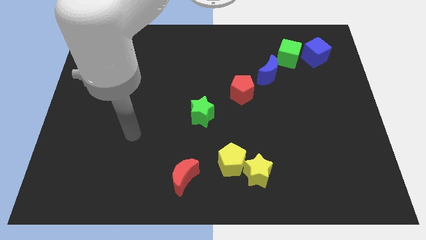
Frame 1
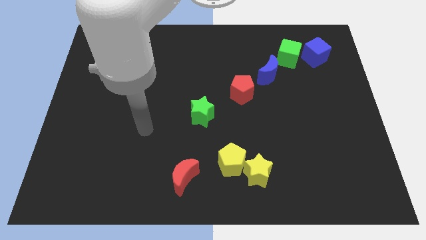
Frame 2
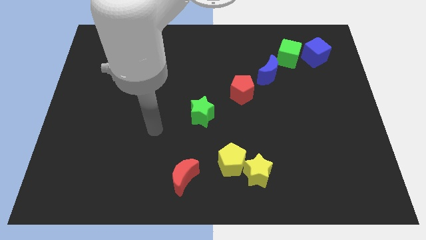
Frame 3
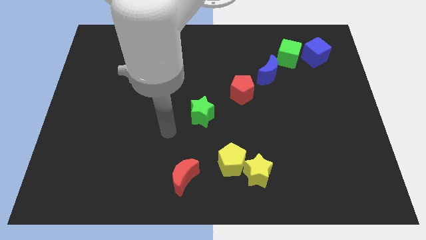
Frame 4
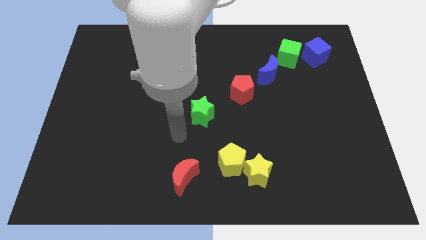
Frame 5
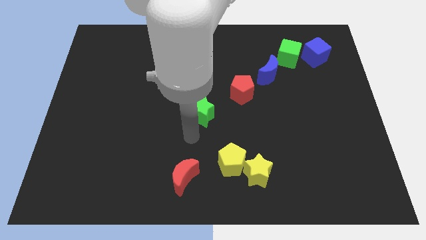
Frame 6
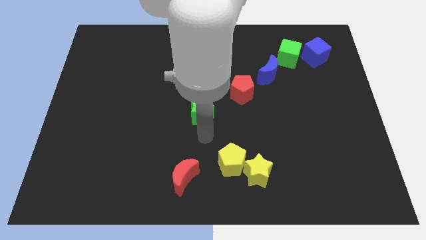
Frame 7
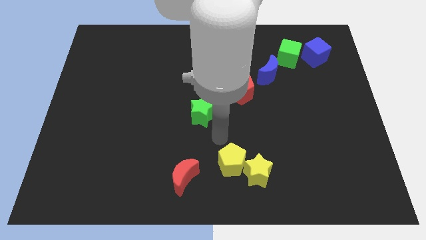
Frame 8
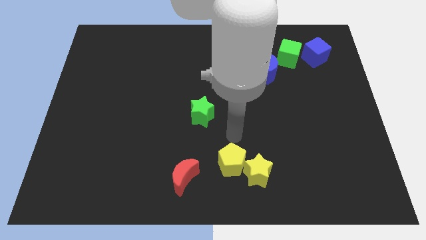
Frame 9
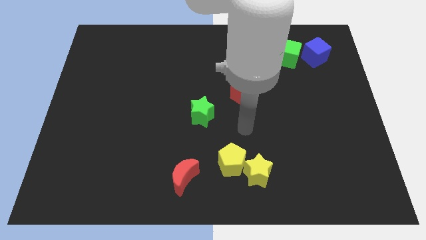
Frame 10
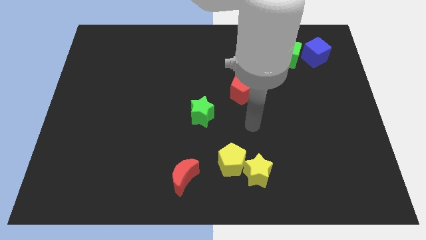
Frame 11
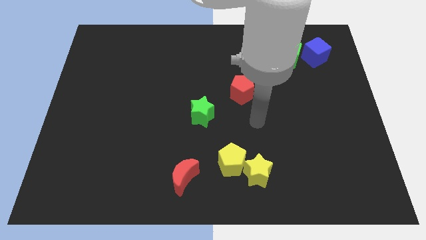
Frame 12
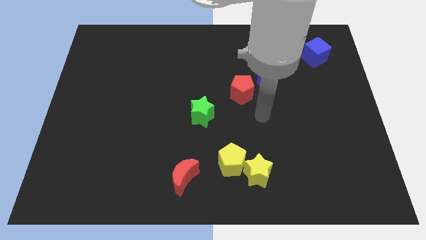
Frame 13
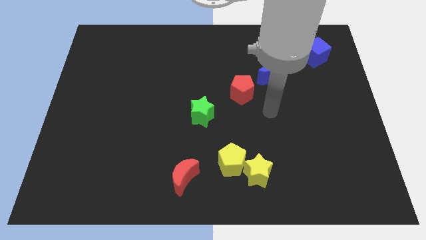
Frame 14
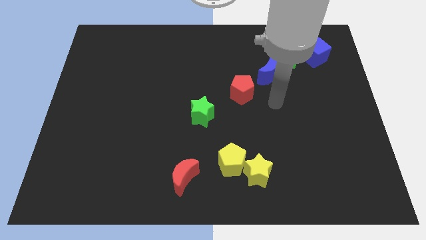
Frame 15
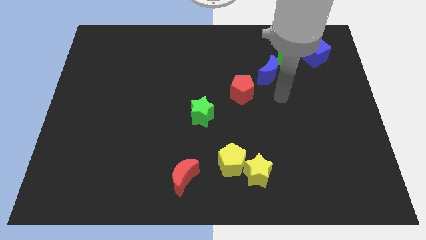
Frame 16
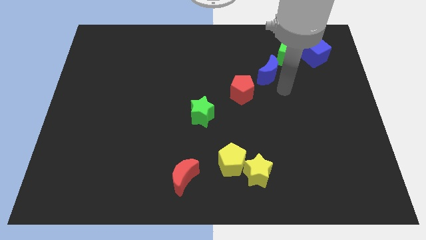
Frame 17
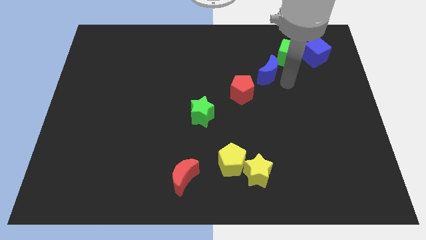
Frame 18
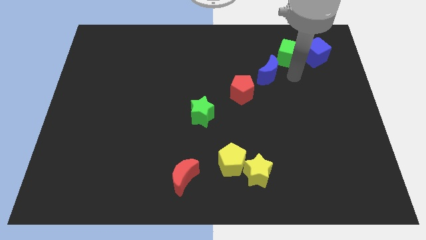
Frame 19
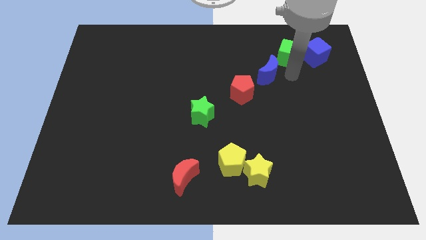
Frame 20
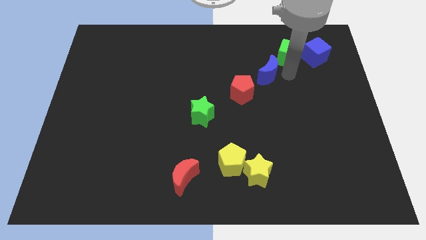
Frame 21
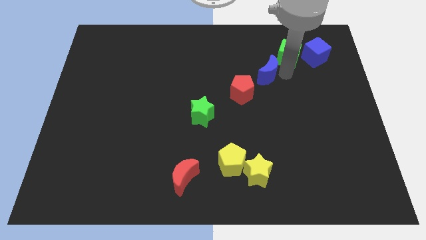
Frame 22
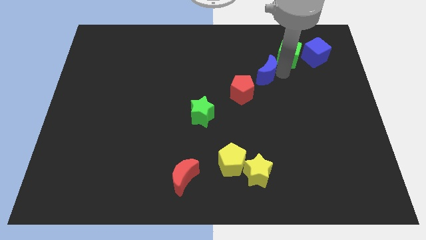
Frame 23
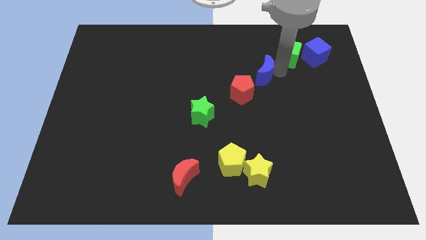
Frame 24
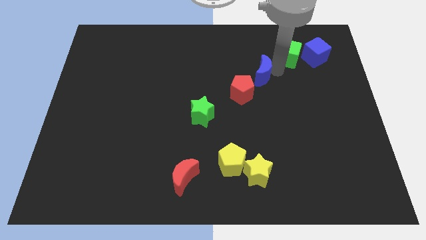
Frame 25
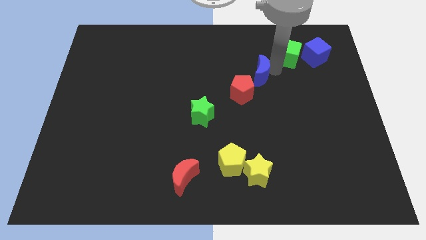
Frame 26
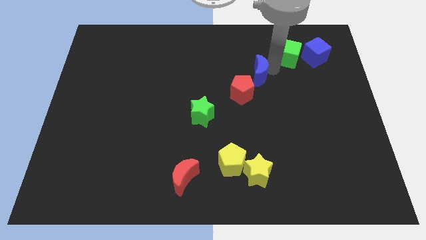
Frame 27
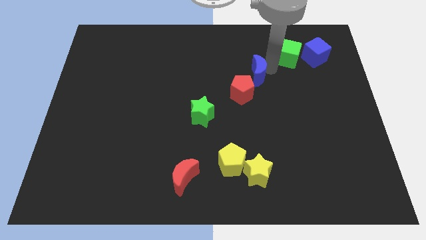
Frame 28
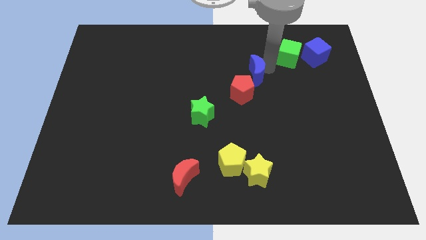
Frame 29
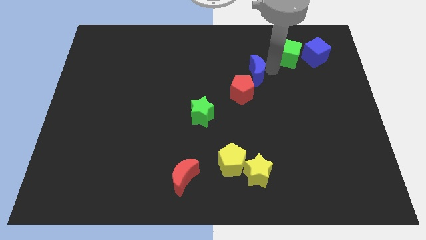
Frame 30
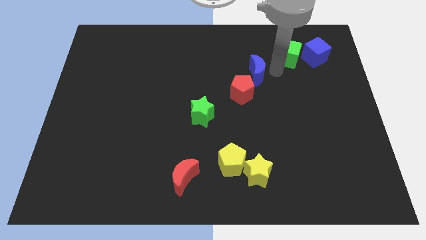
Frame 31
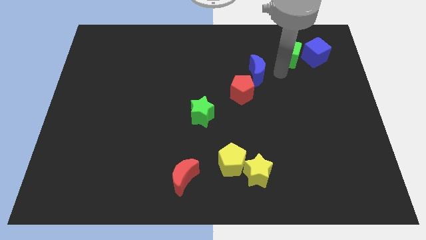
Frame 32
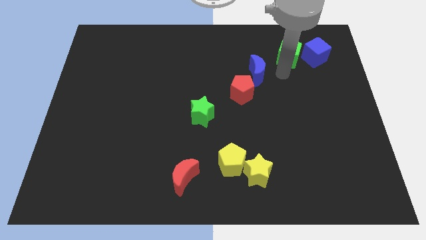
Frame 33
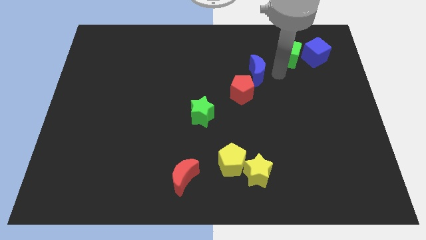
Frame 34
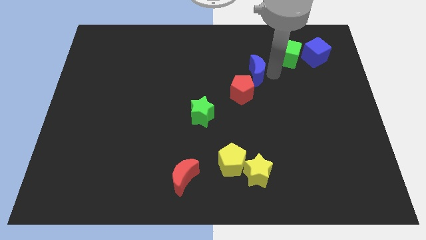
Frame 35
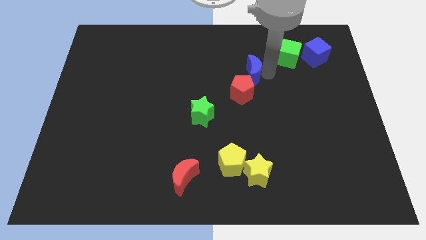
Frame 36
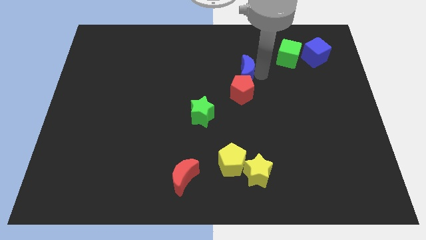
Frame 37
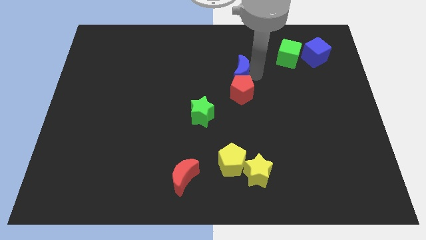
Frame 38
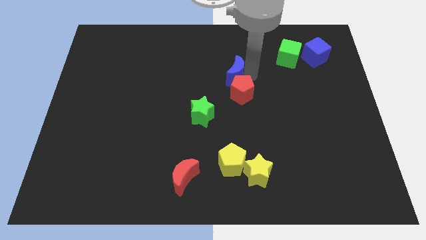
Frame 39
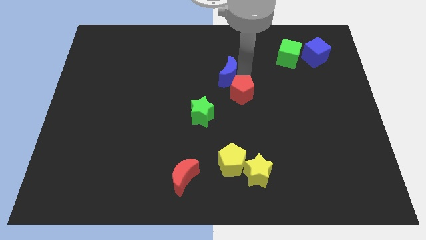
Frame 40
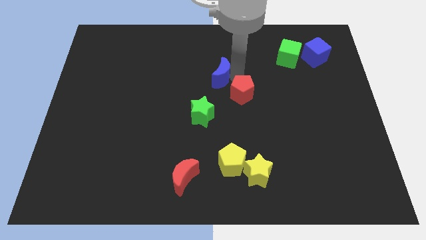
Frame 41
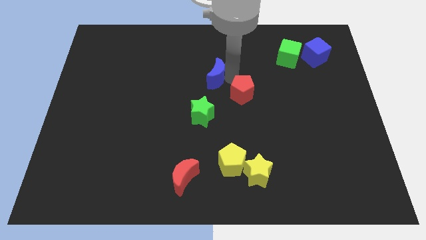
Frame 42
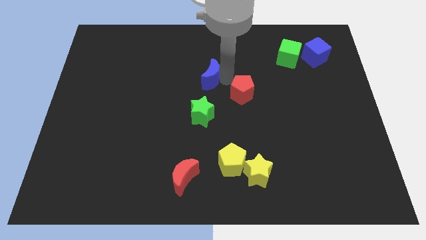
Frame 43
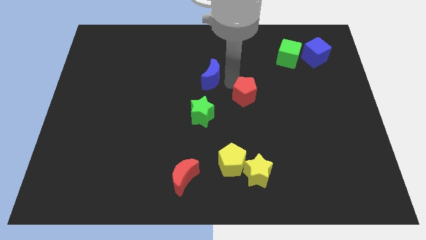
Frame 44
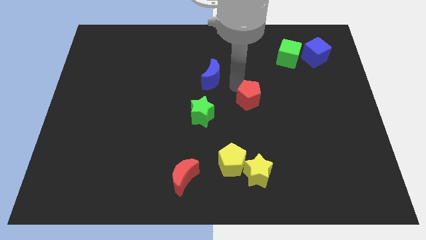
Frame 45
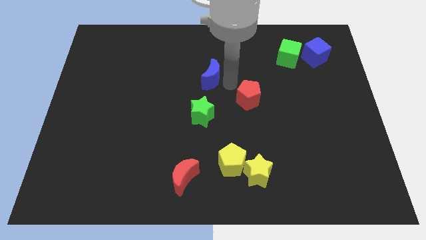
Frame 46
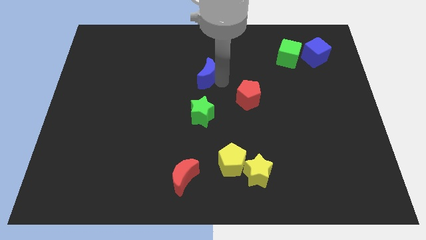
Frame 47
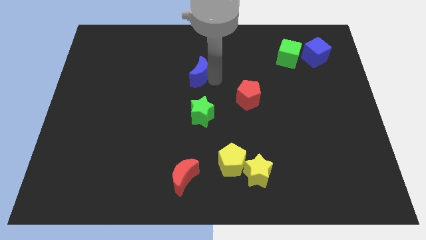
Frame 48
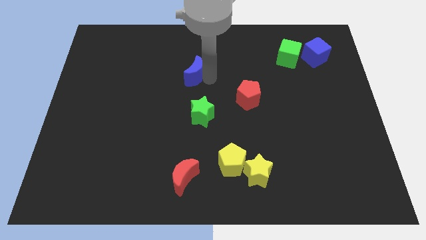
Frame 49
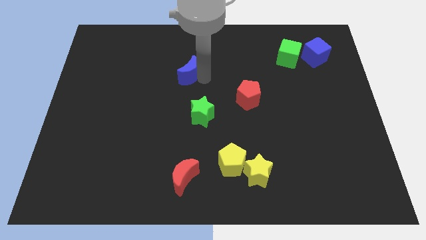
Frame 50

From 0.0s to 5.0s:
push the blue moon to the left

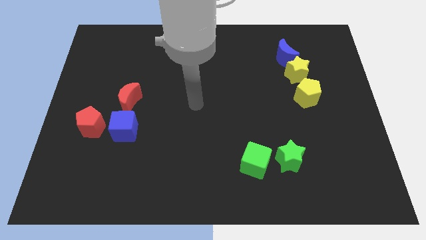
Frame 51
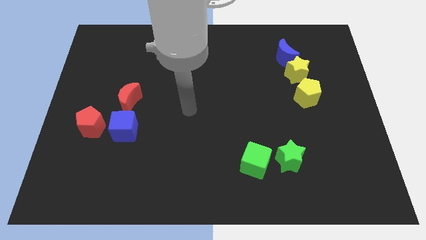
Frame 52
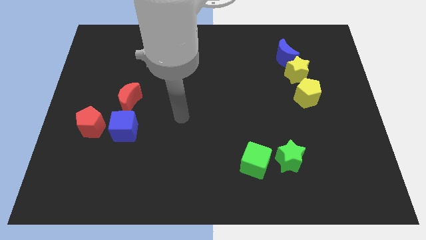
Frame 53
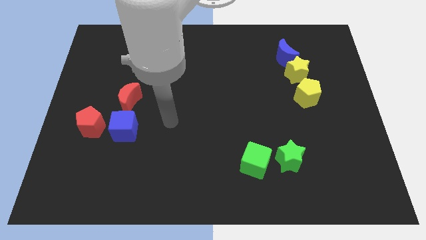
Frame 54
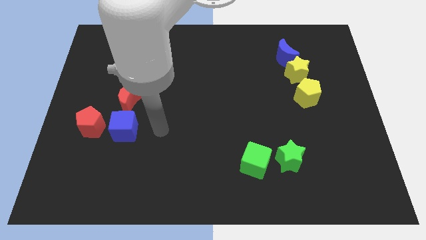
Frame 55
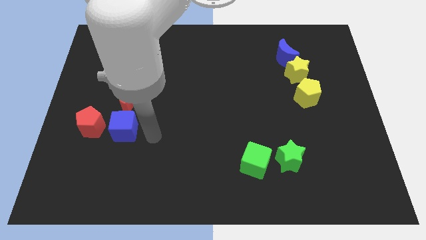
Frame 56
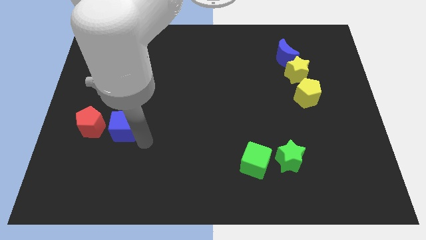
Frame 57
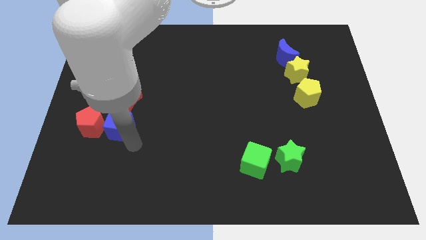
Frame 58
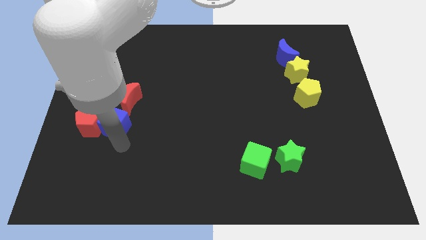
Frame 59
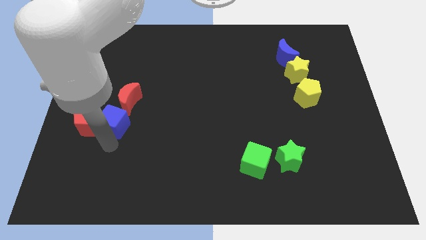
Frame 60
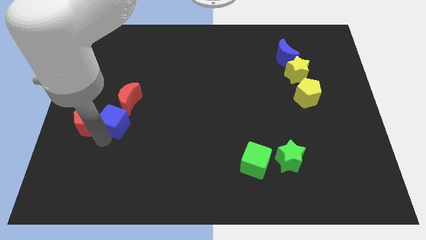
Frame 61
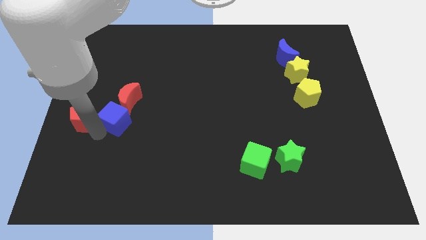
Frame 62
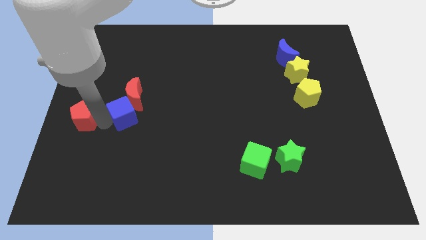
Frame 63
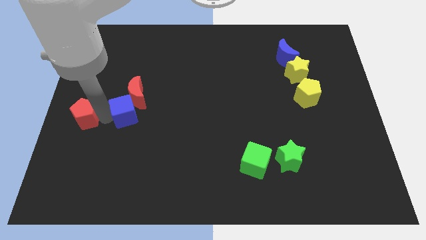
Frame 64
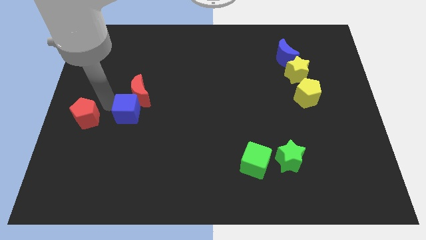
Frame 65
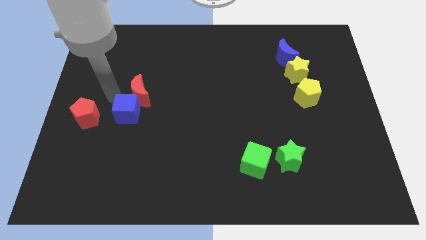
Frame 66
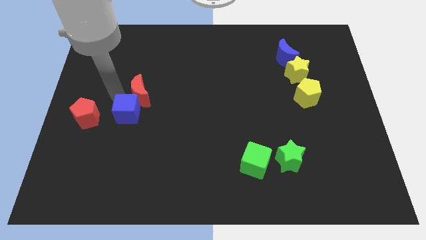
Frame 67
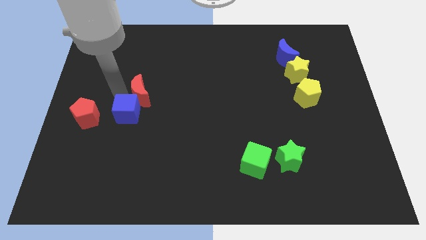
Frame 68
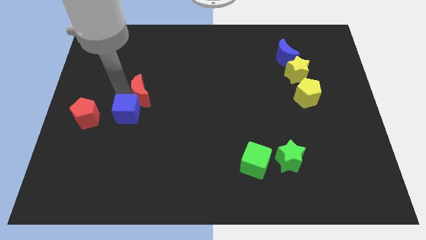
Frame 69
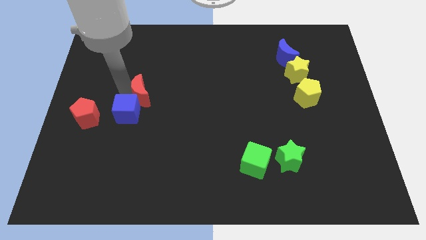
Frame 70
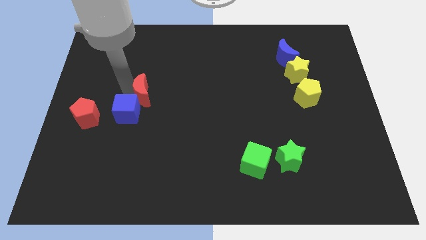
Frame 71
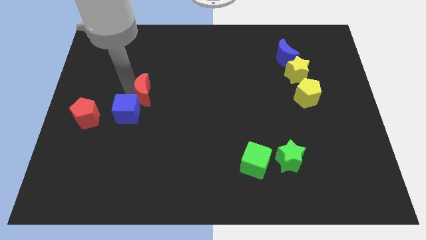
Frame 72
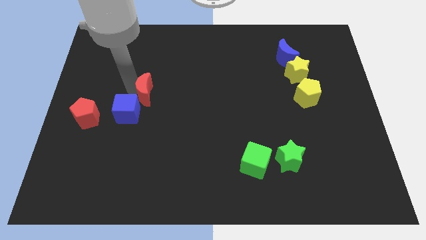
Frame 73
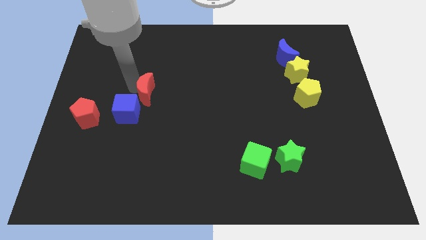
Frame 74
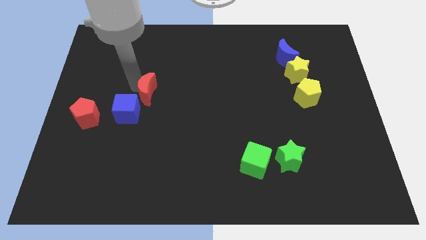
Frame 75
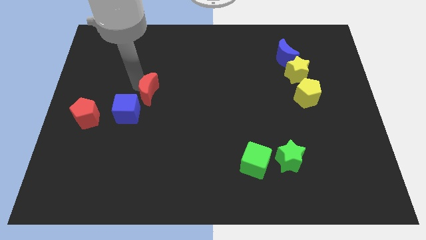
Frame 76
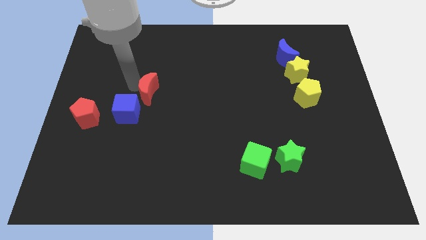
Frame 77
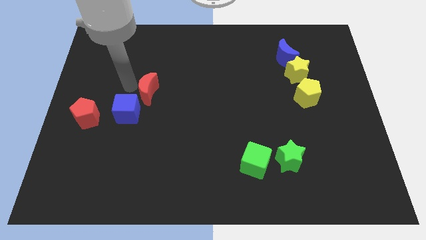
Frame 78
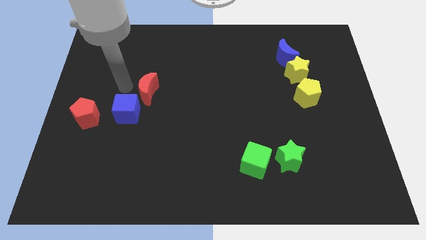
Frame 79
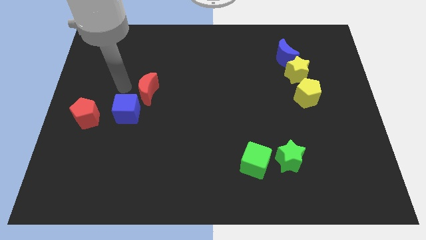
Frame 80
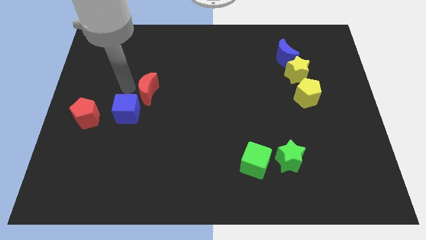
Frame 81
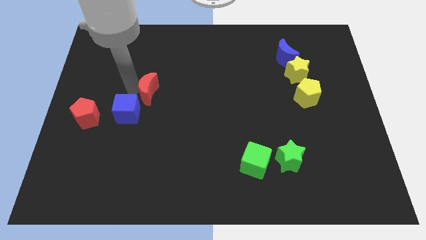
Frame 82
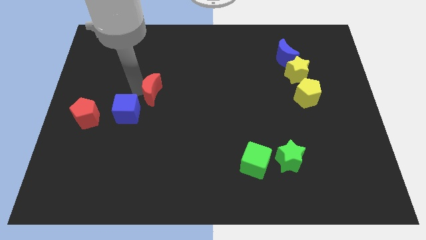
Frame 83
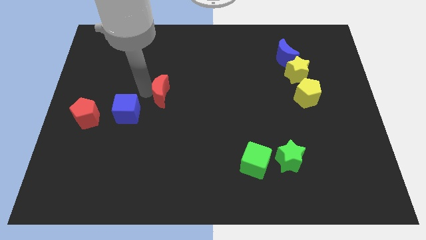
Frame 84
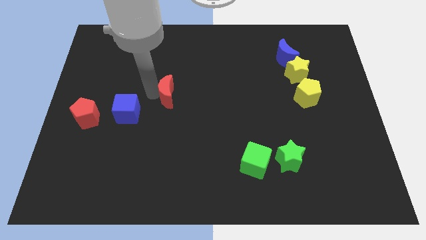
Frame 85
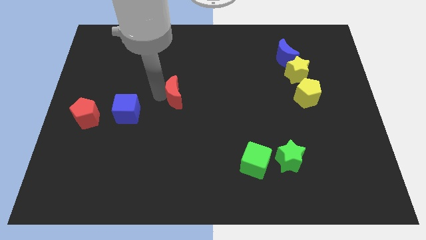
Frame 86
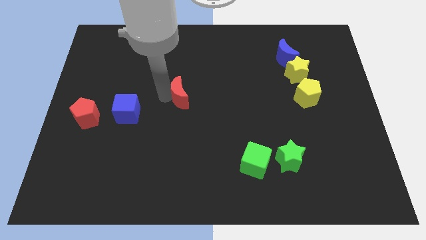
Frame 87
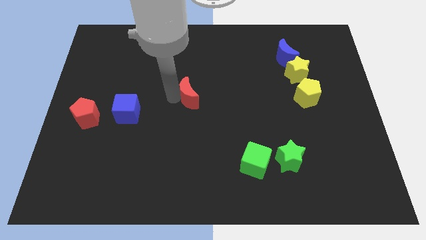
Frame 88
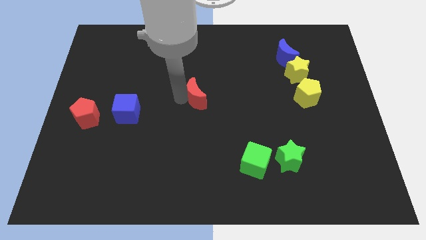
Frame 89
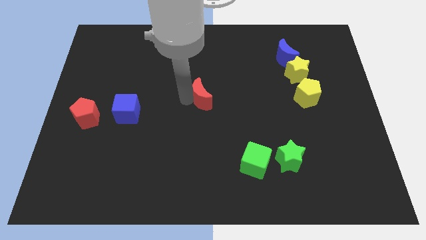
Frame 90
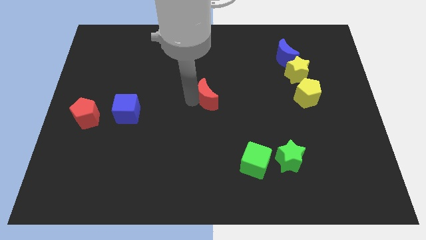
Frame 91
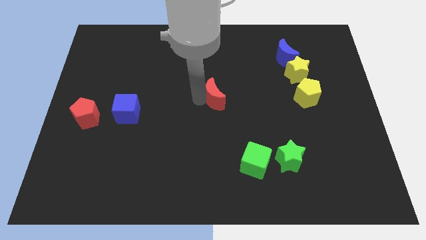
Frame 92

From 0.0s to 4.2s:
push the red moon to the right
